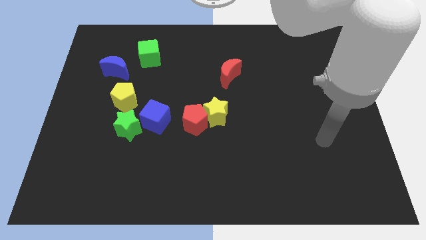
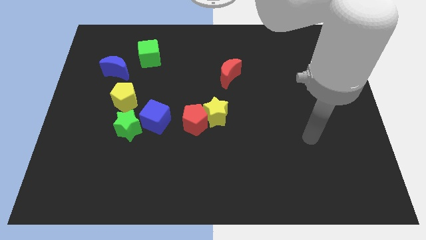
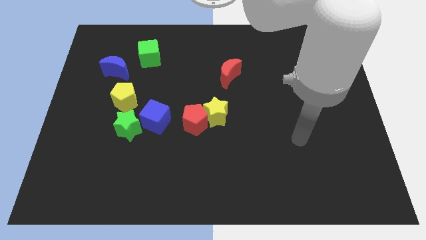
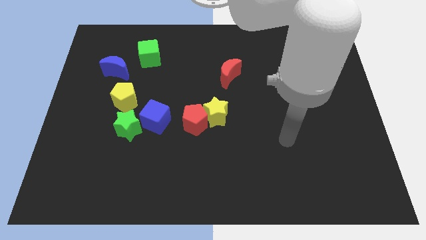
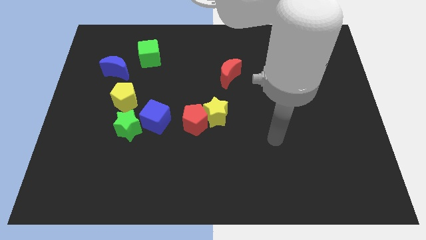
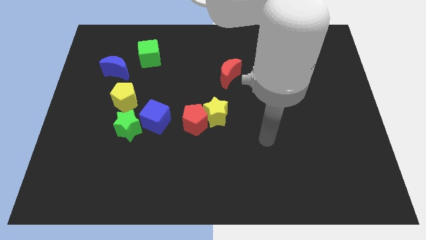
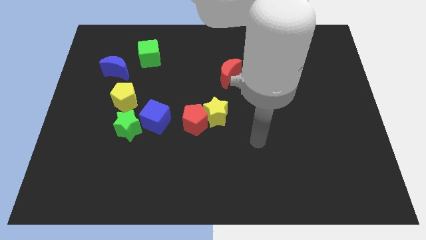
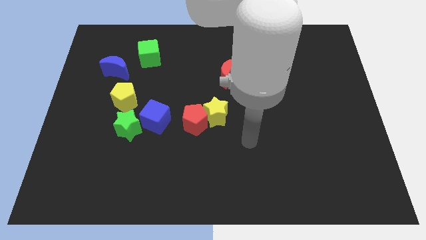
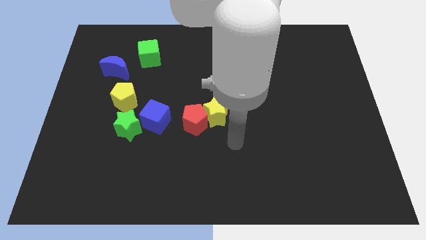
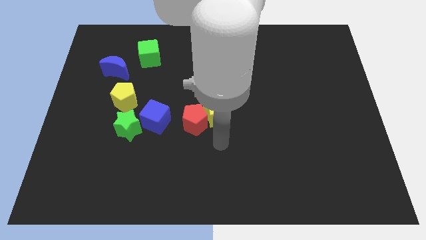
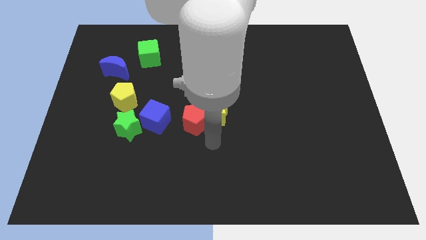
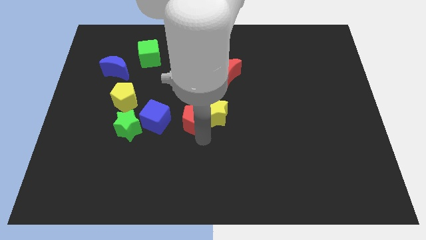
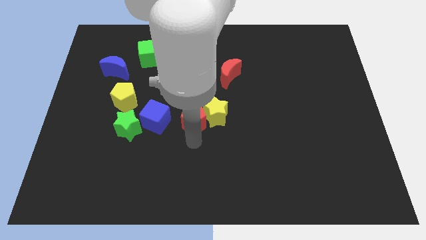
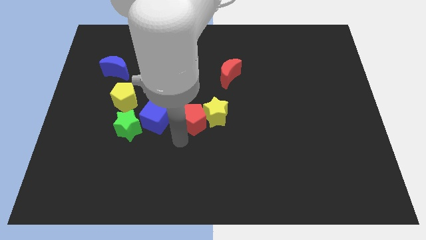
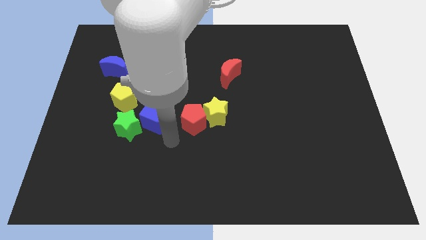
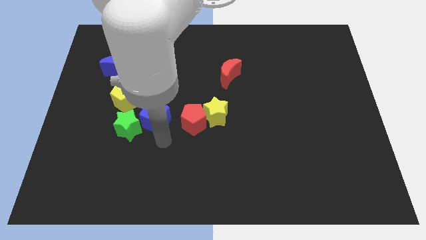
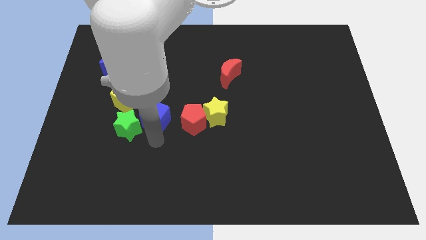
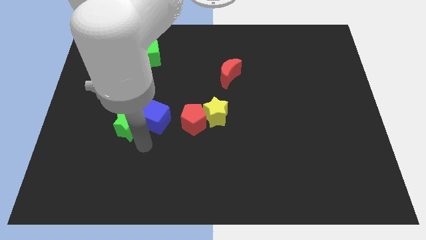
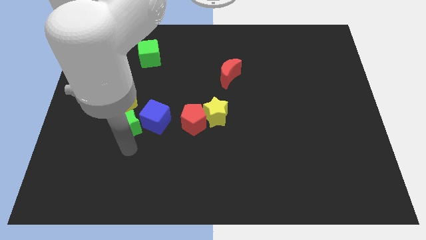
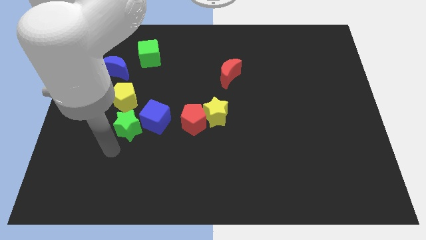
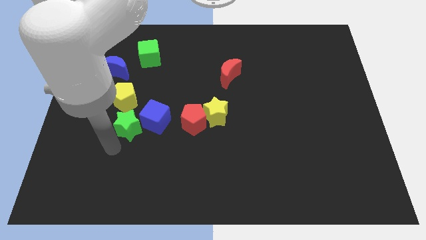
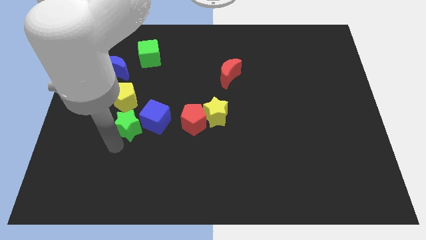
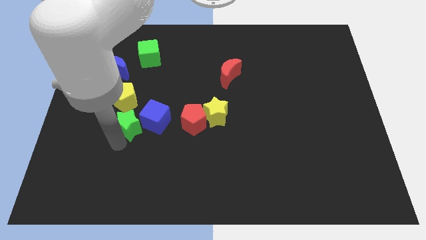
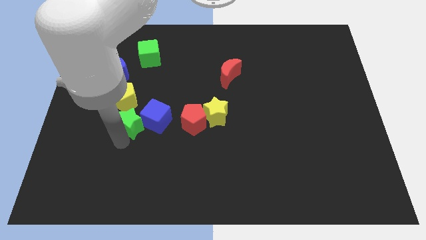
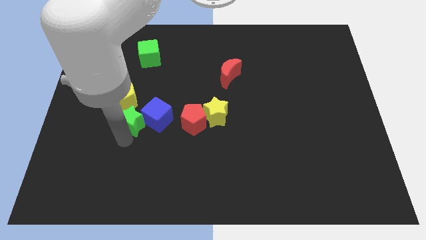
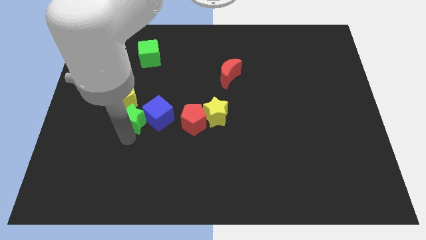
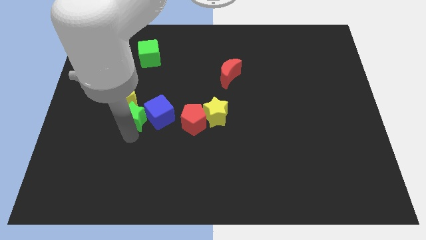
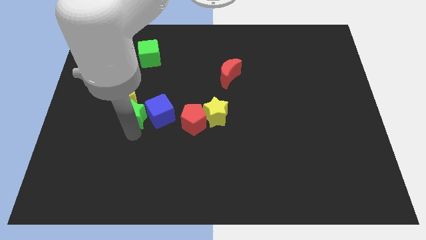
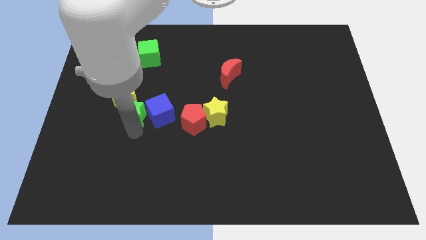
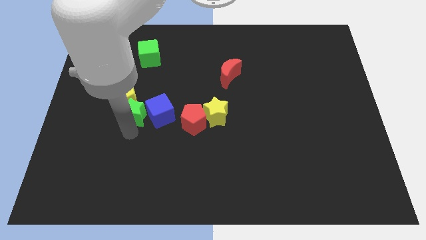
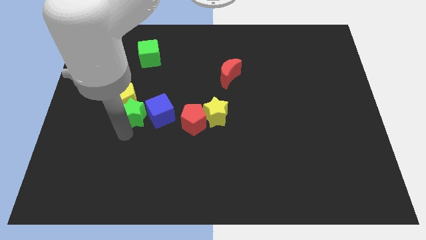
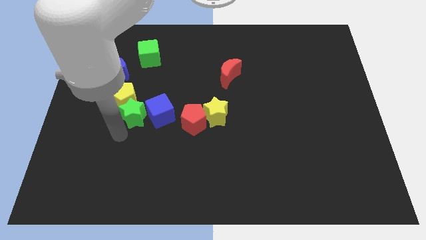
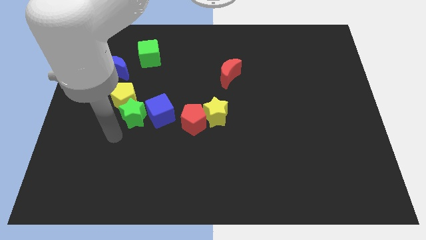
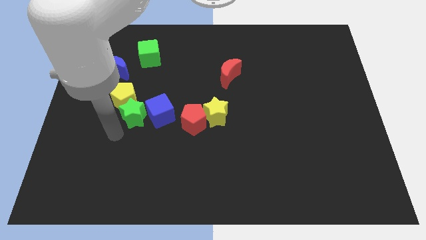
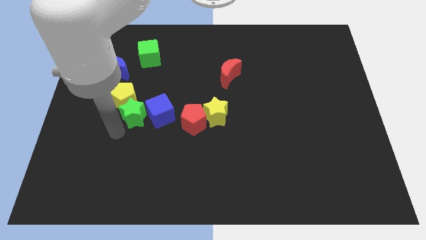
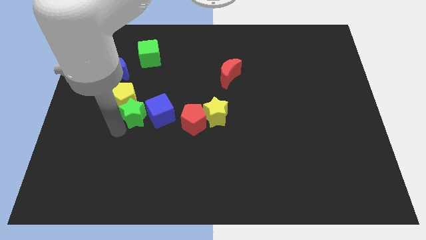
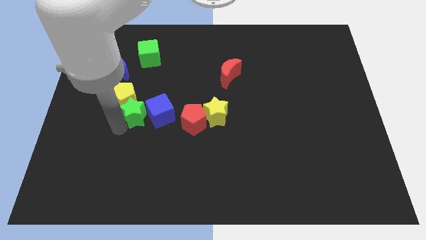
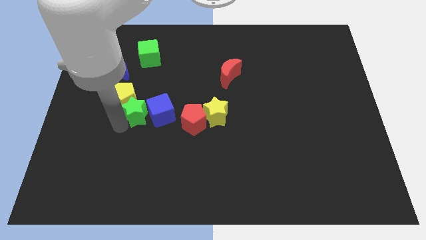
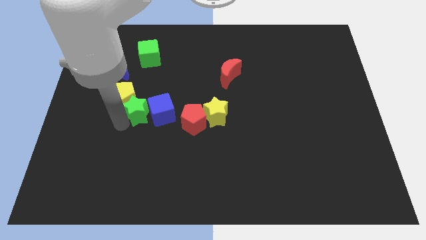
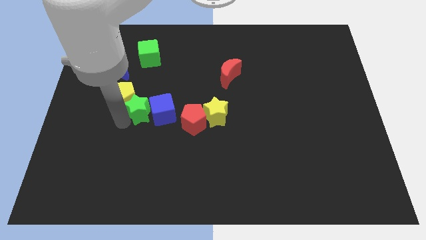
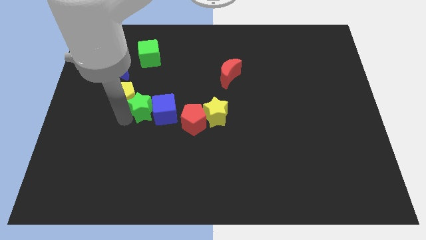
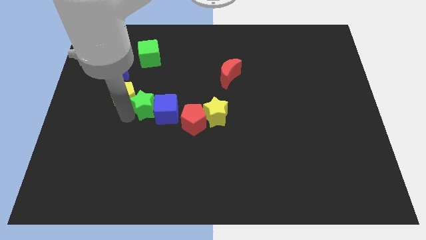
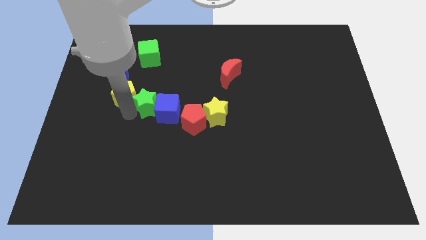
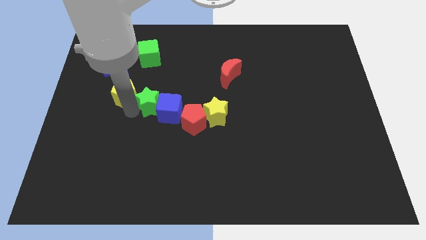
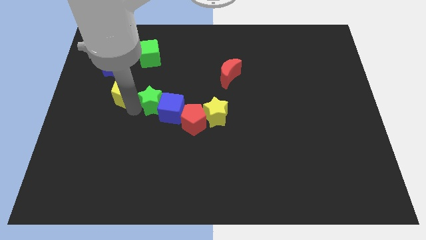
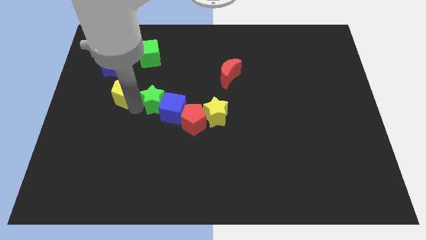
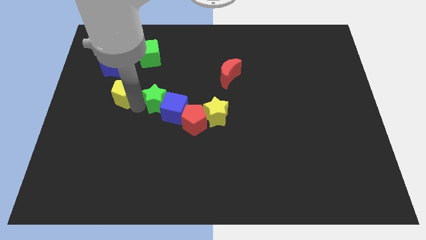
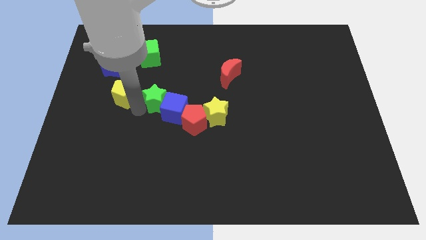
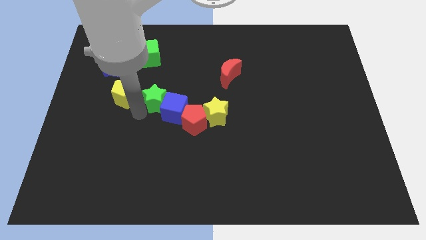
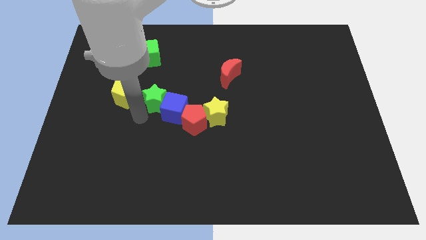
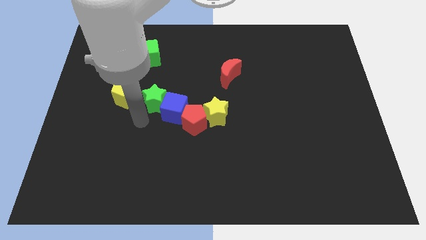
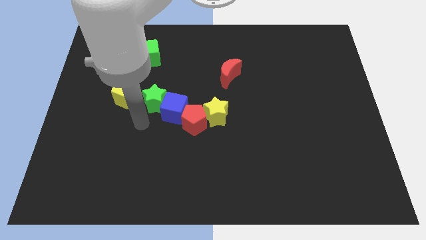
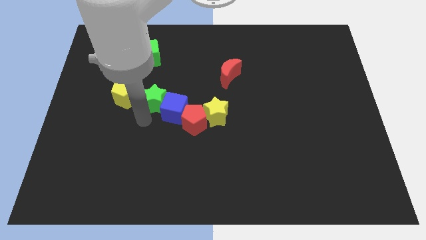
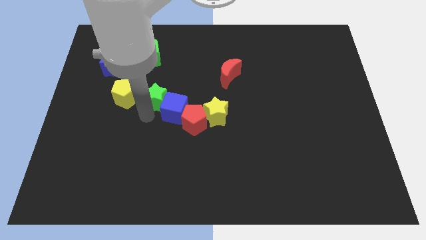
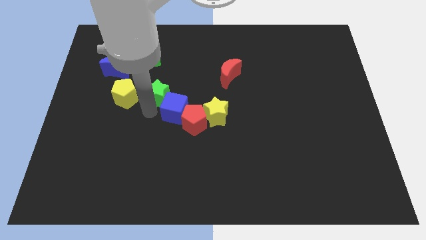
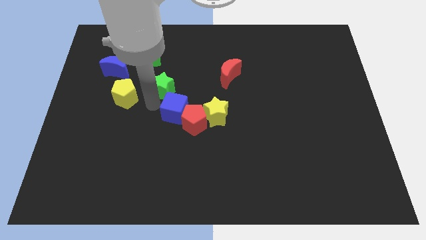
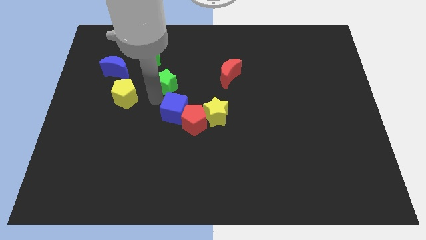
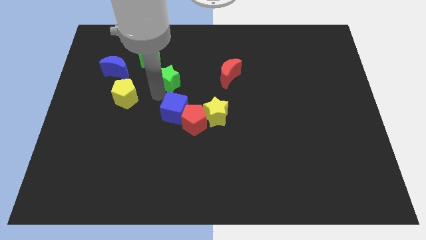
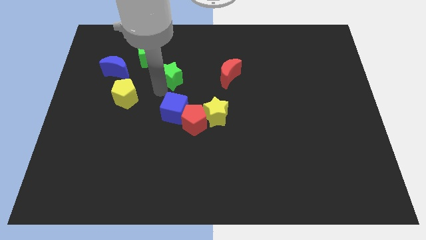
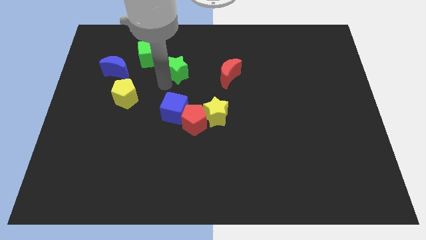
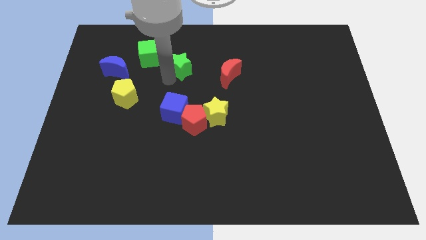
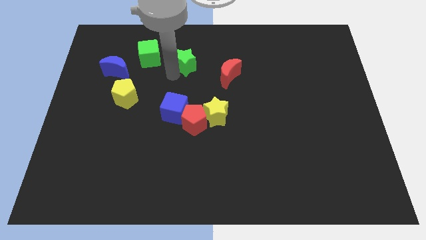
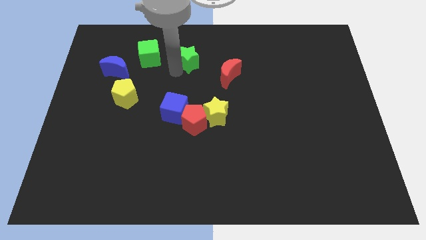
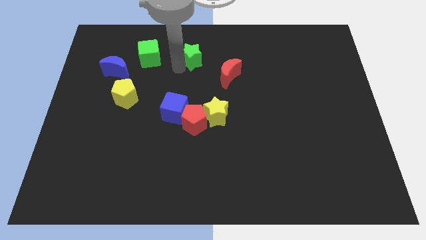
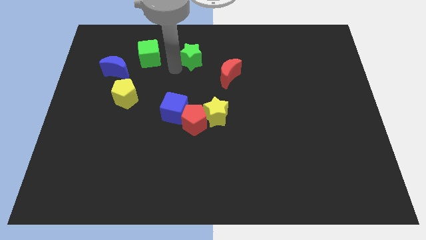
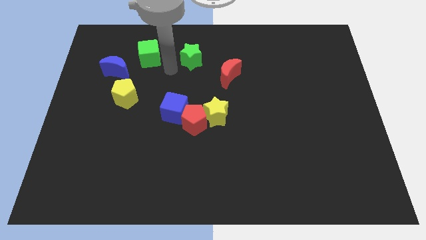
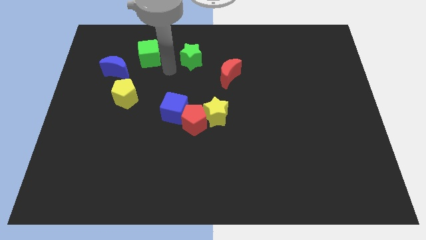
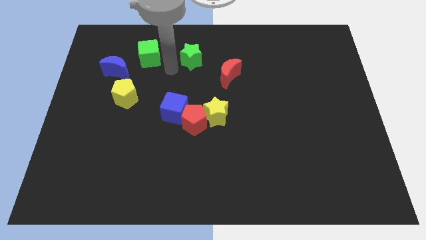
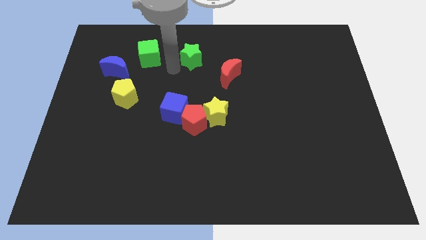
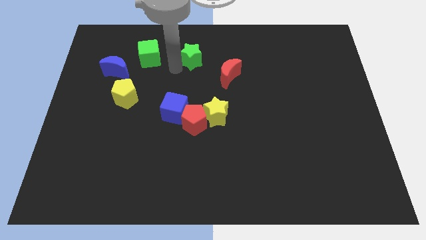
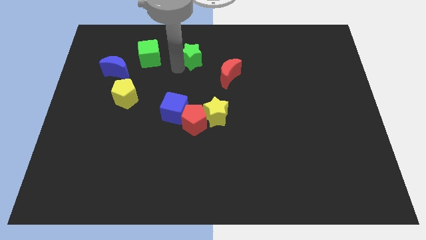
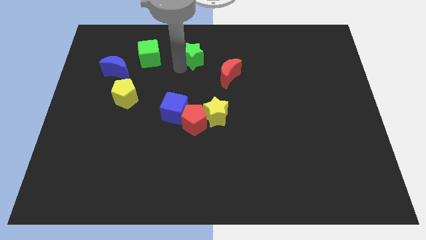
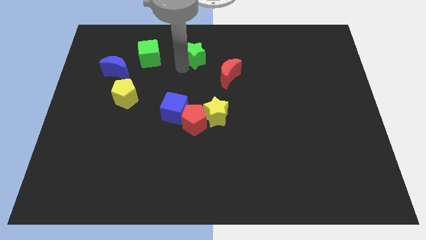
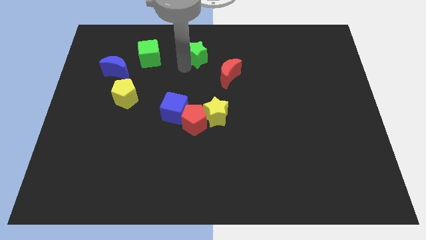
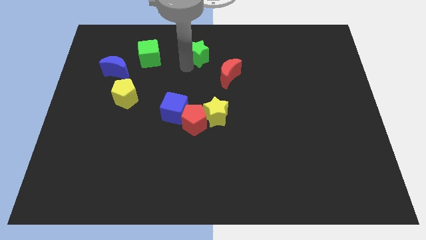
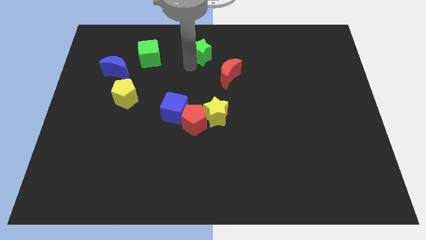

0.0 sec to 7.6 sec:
push the green star to the towards your base
